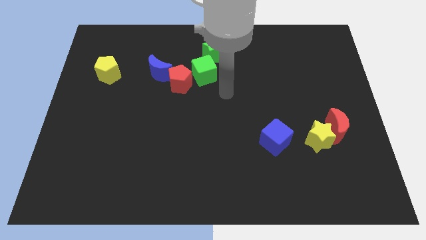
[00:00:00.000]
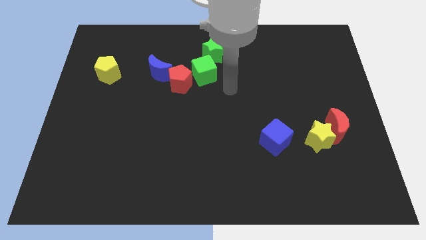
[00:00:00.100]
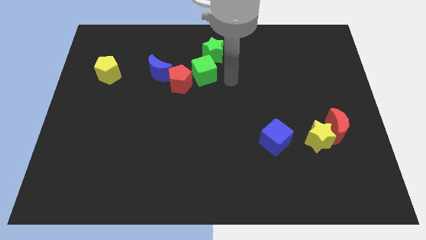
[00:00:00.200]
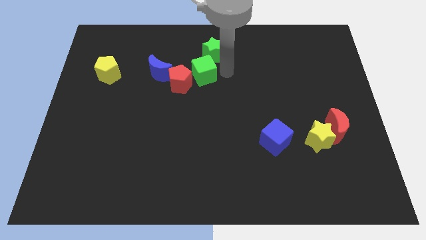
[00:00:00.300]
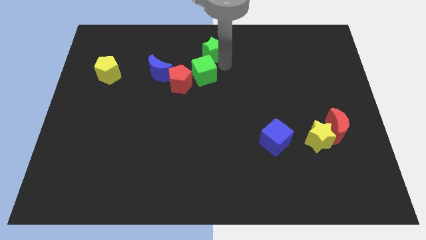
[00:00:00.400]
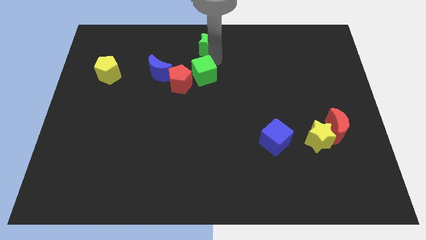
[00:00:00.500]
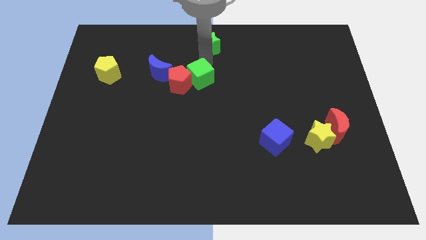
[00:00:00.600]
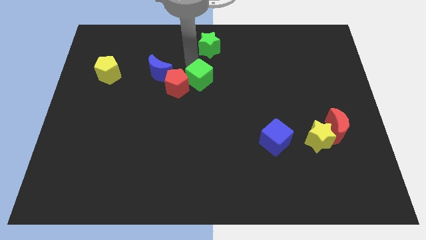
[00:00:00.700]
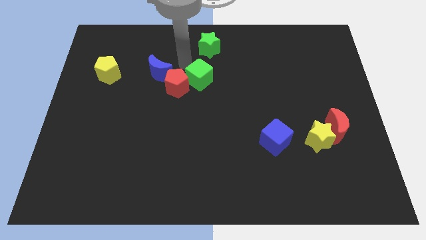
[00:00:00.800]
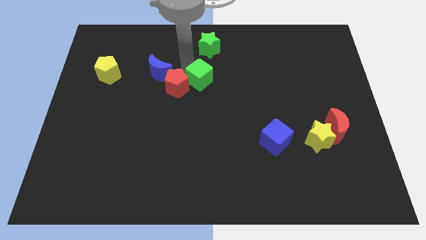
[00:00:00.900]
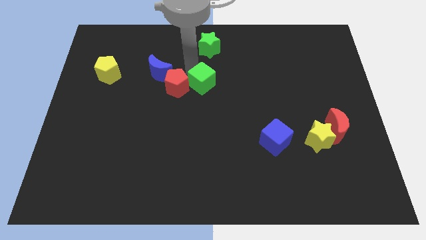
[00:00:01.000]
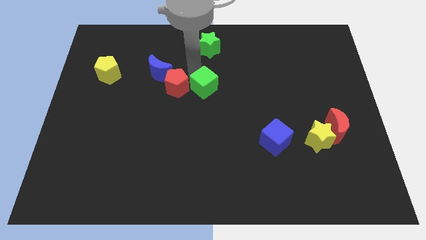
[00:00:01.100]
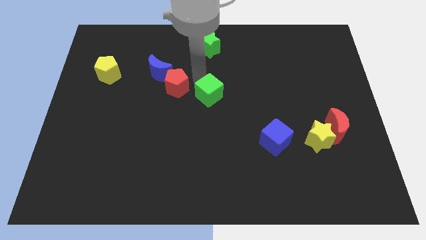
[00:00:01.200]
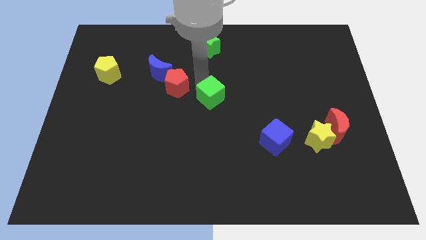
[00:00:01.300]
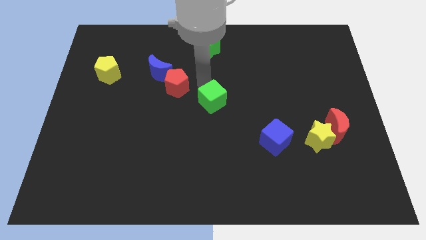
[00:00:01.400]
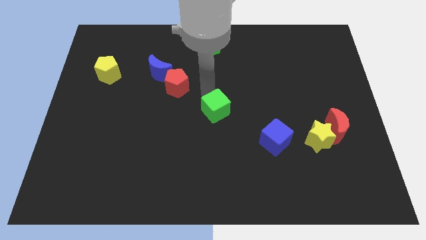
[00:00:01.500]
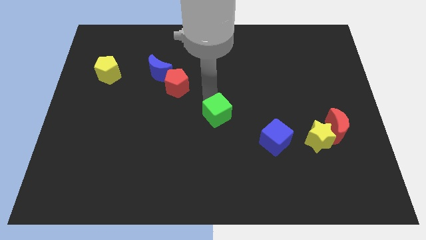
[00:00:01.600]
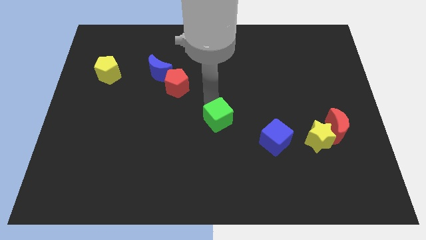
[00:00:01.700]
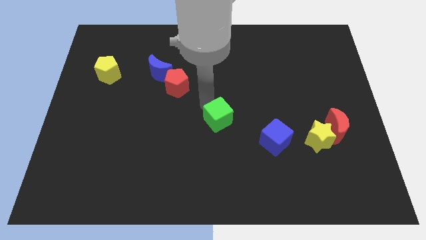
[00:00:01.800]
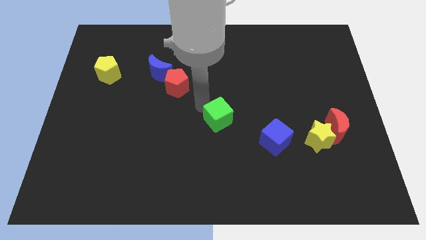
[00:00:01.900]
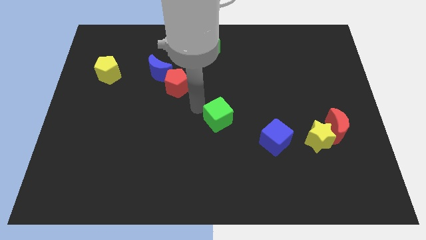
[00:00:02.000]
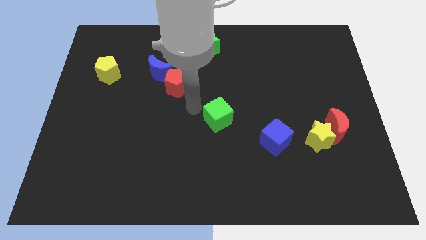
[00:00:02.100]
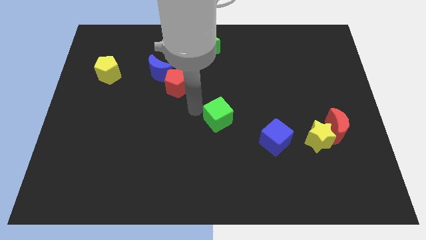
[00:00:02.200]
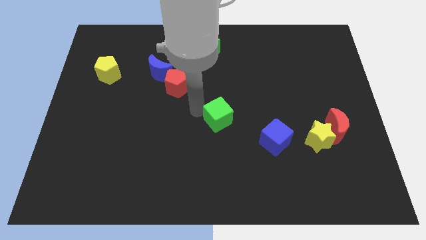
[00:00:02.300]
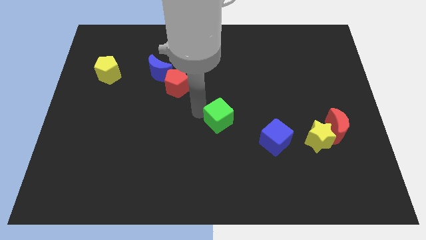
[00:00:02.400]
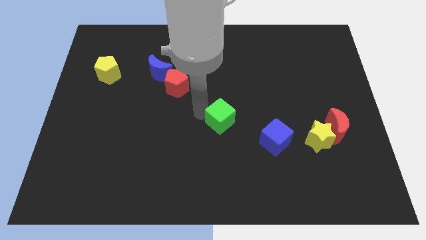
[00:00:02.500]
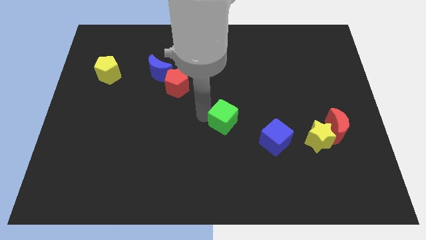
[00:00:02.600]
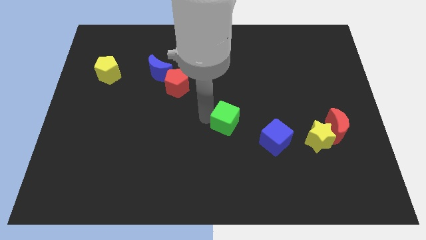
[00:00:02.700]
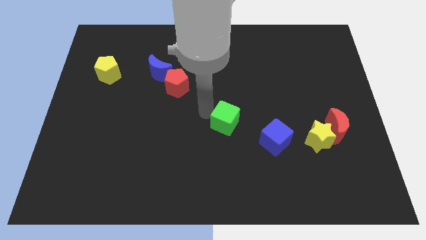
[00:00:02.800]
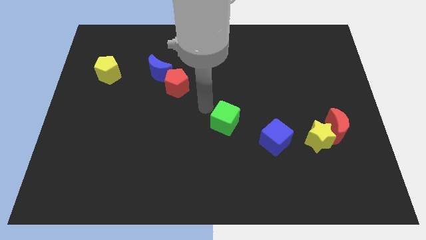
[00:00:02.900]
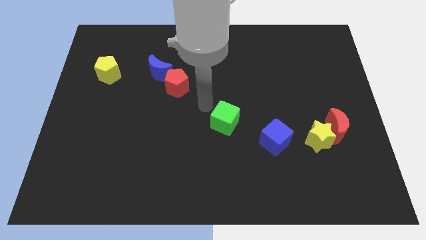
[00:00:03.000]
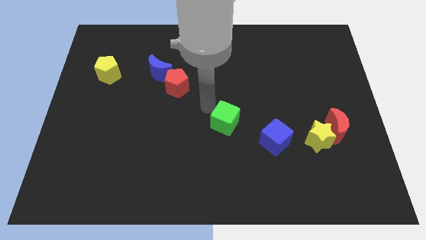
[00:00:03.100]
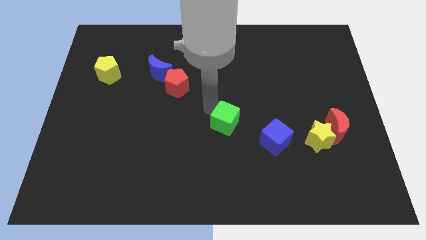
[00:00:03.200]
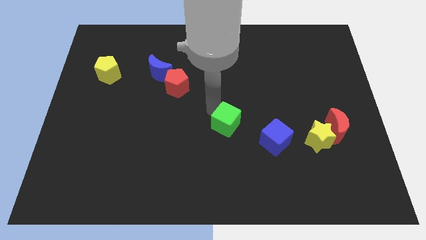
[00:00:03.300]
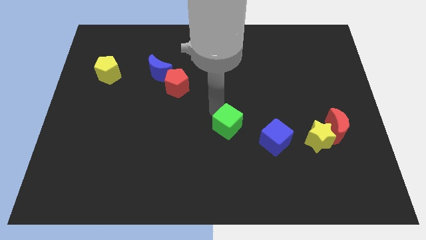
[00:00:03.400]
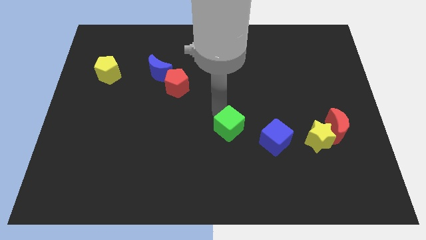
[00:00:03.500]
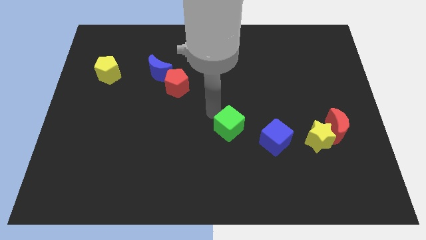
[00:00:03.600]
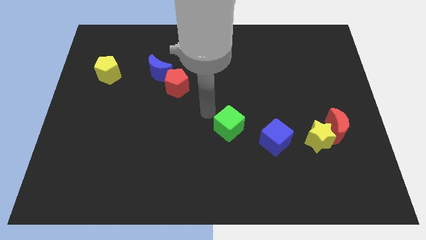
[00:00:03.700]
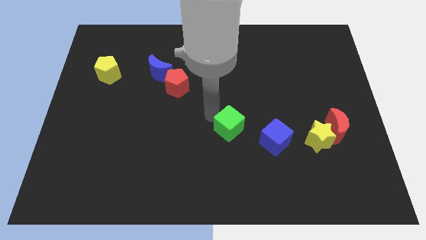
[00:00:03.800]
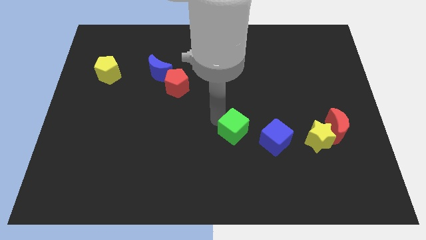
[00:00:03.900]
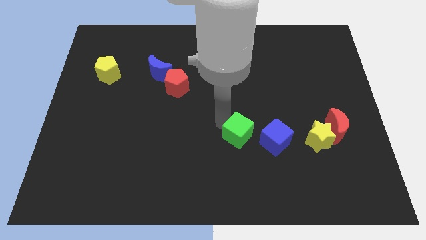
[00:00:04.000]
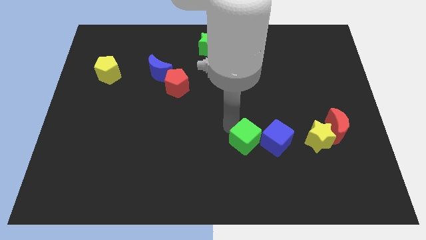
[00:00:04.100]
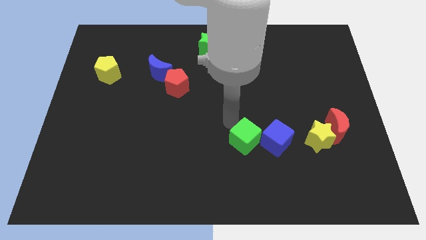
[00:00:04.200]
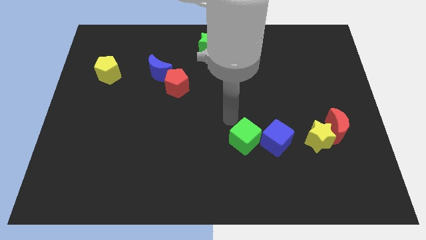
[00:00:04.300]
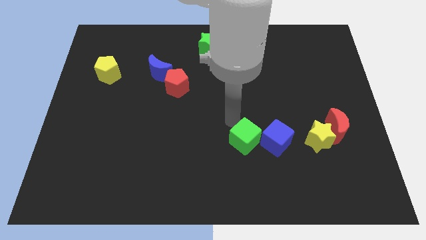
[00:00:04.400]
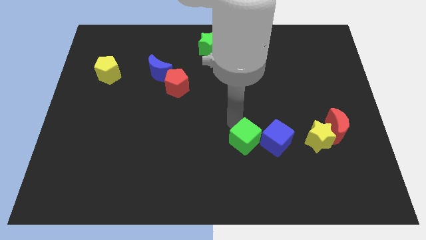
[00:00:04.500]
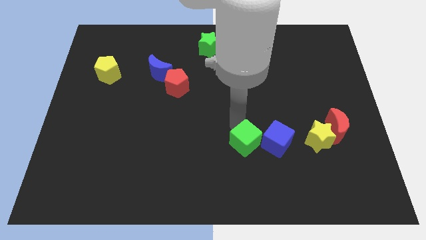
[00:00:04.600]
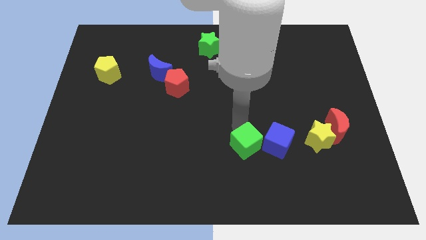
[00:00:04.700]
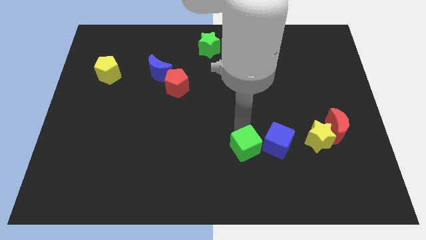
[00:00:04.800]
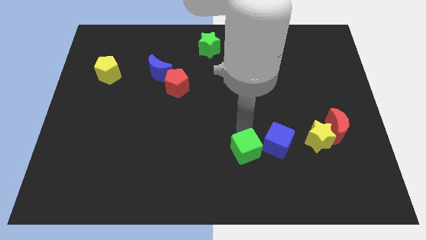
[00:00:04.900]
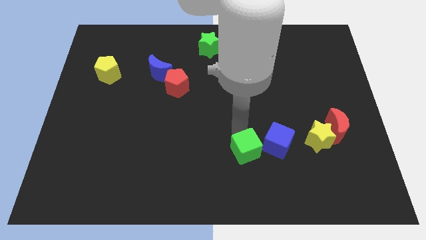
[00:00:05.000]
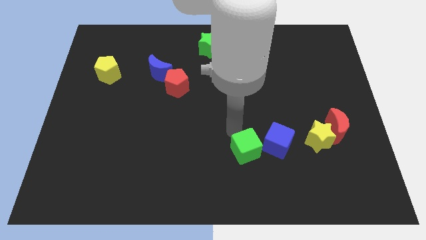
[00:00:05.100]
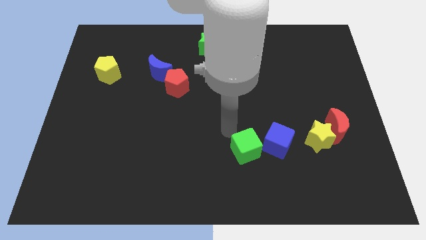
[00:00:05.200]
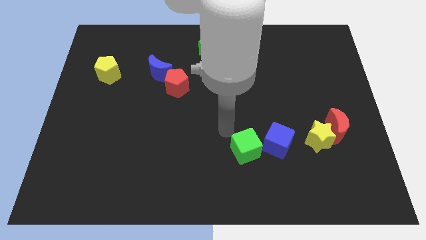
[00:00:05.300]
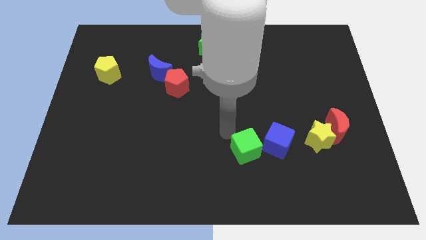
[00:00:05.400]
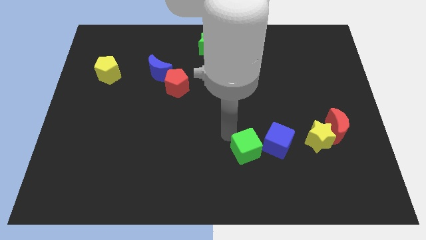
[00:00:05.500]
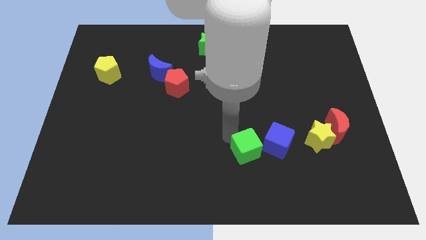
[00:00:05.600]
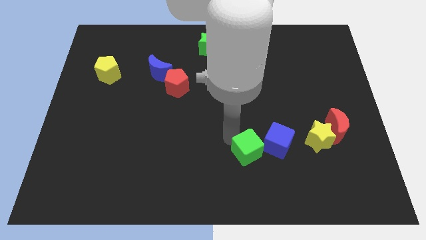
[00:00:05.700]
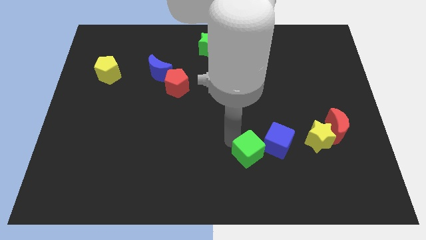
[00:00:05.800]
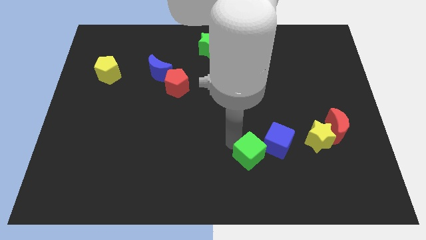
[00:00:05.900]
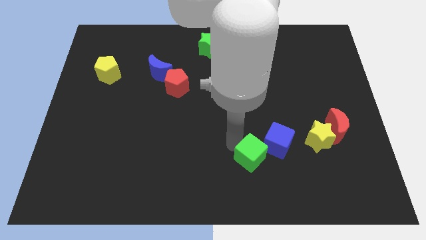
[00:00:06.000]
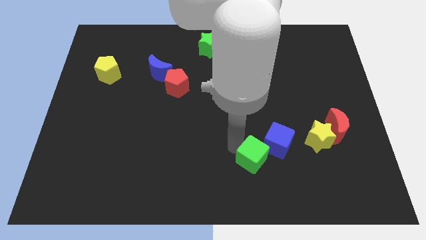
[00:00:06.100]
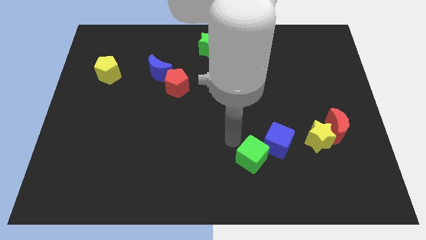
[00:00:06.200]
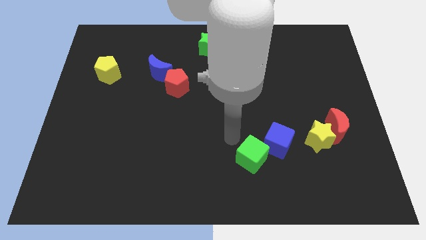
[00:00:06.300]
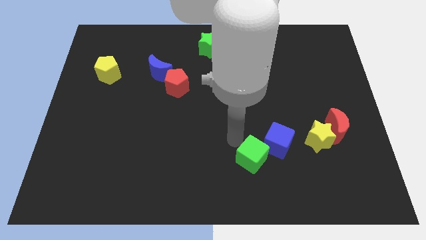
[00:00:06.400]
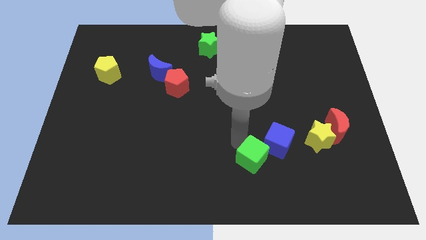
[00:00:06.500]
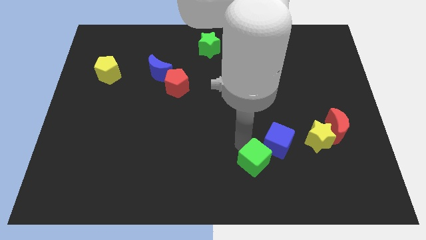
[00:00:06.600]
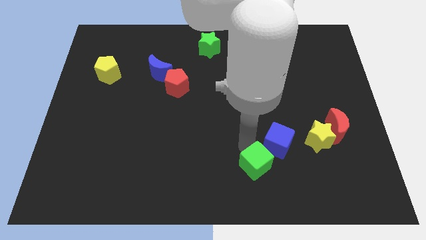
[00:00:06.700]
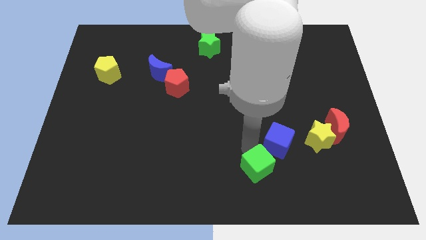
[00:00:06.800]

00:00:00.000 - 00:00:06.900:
move the green cube below the blue cube

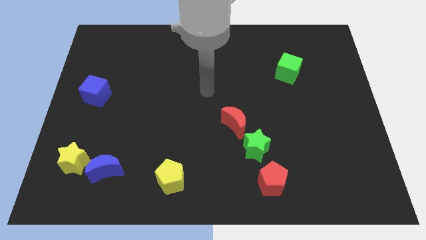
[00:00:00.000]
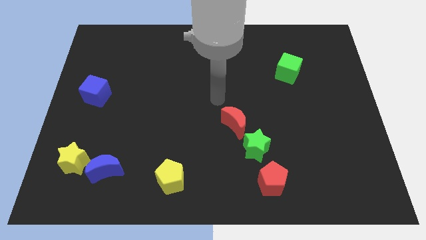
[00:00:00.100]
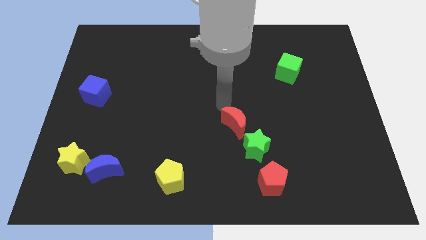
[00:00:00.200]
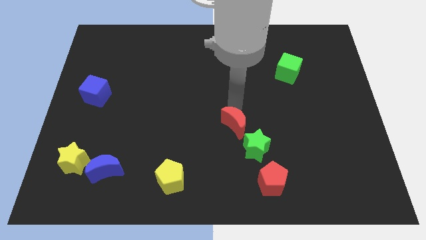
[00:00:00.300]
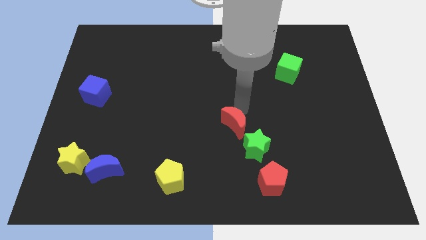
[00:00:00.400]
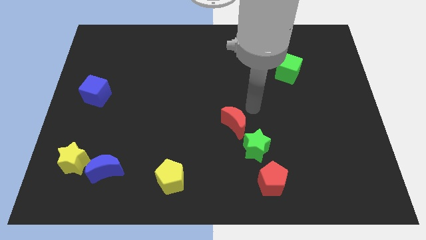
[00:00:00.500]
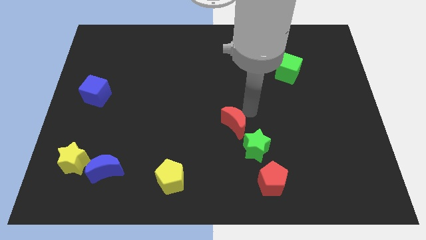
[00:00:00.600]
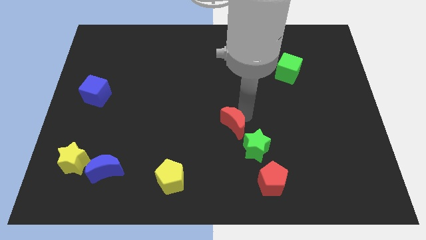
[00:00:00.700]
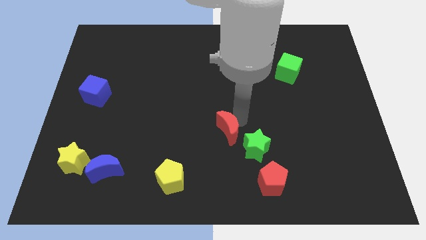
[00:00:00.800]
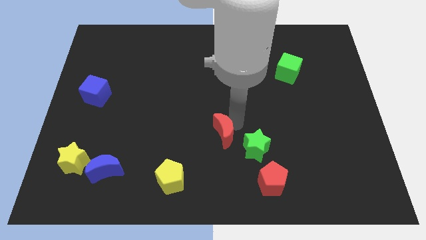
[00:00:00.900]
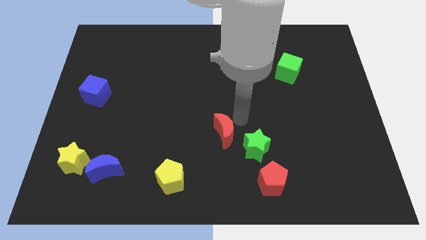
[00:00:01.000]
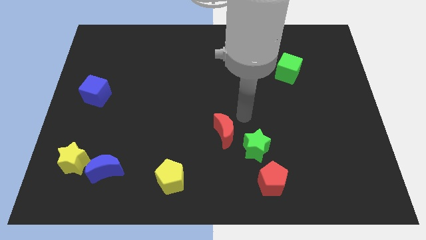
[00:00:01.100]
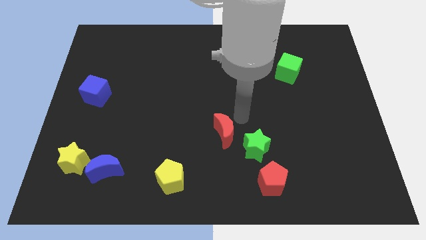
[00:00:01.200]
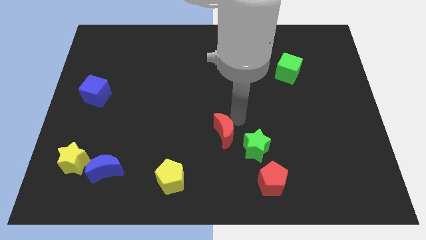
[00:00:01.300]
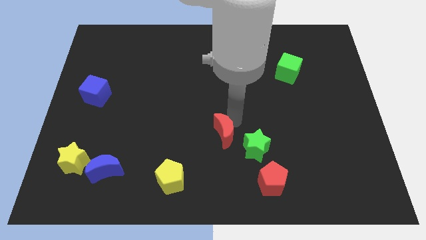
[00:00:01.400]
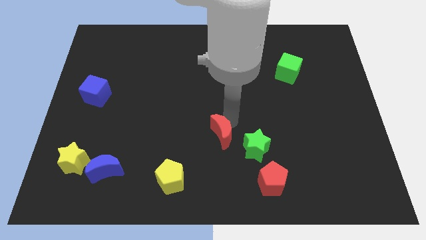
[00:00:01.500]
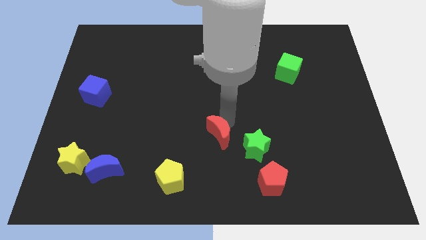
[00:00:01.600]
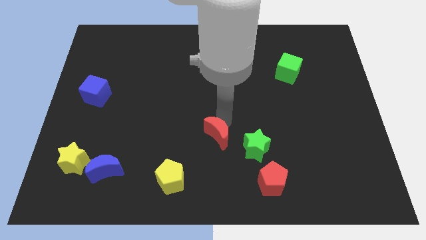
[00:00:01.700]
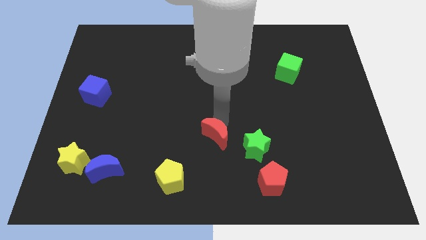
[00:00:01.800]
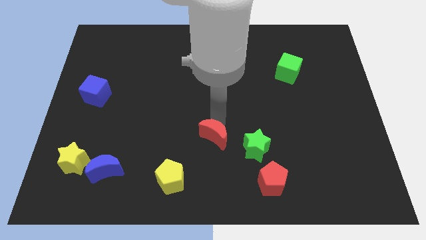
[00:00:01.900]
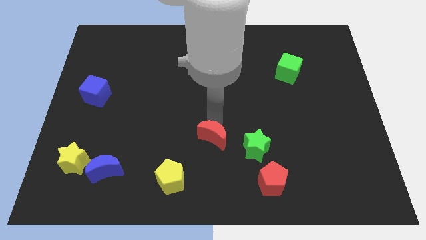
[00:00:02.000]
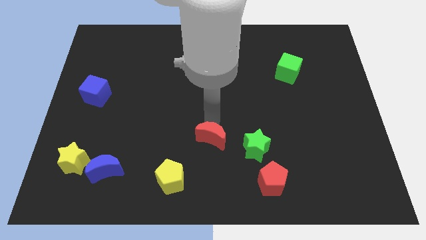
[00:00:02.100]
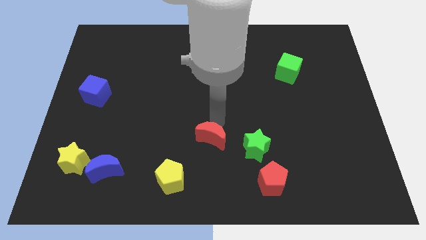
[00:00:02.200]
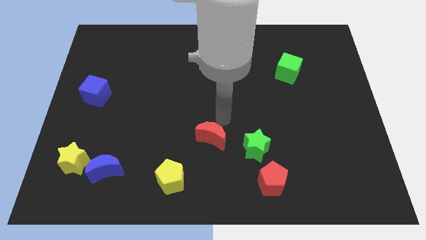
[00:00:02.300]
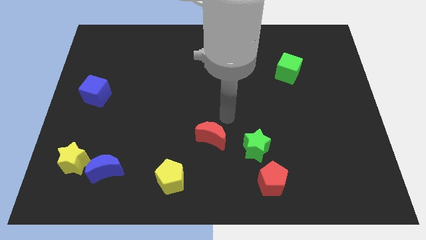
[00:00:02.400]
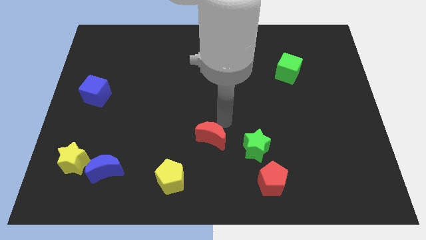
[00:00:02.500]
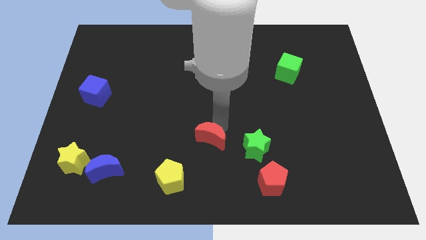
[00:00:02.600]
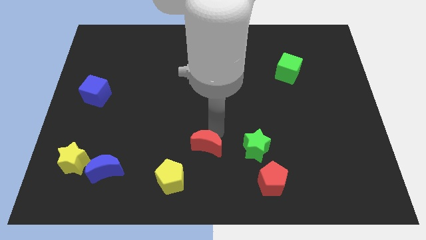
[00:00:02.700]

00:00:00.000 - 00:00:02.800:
push the red moon to the top right side of the yellow pentagon
